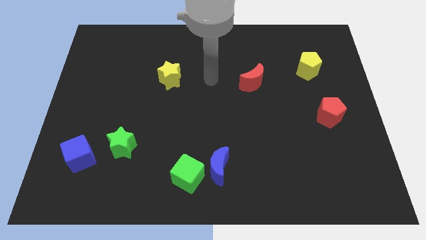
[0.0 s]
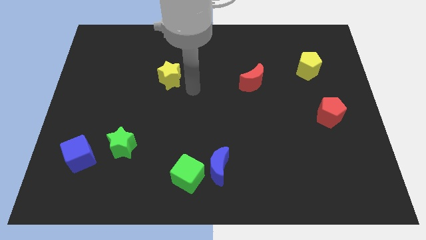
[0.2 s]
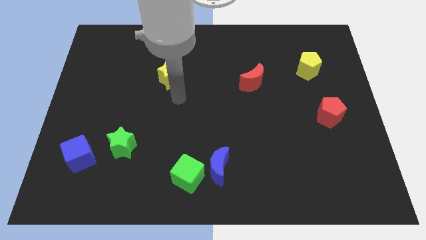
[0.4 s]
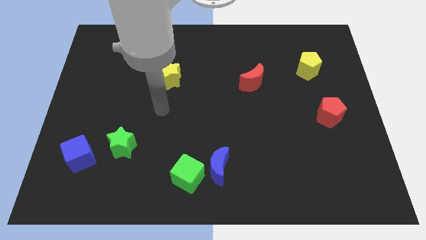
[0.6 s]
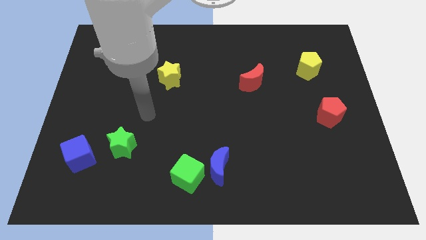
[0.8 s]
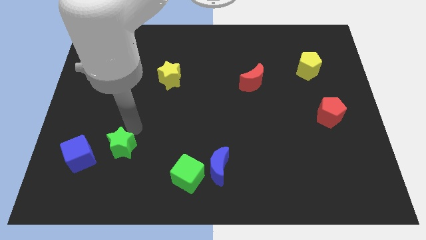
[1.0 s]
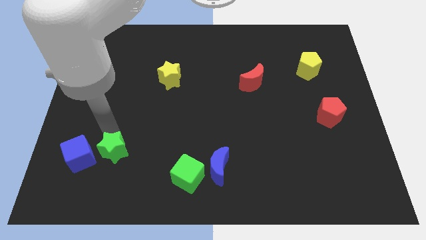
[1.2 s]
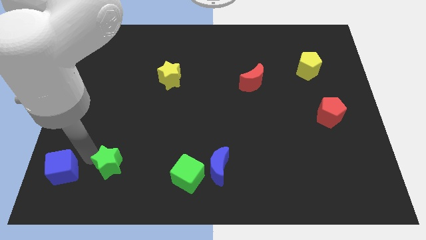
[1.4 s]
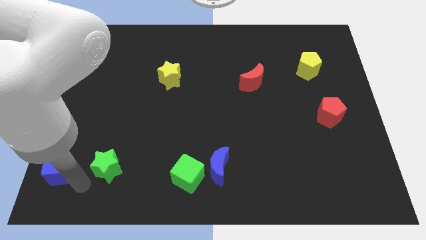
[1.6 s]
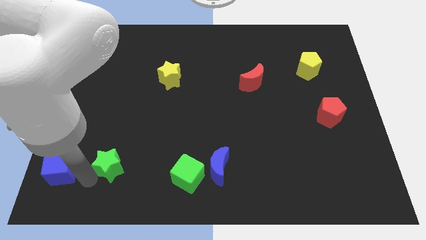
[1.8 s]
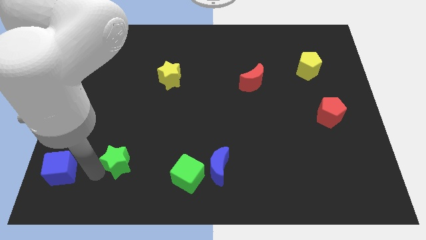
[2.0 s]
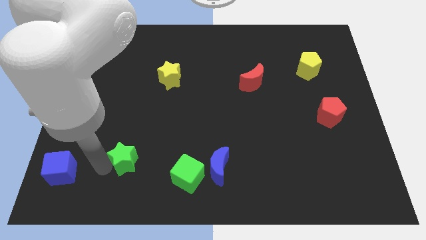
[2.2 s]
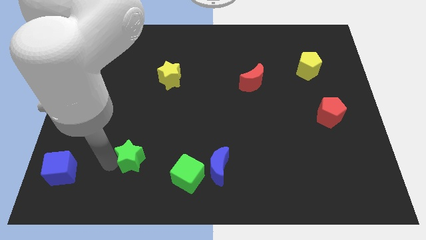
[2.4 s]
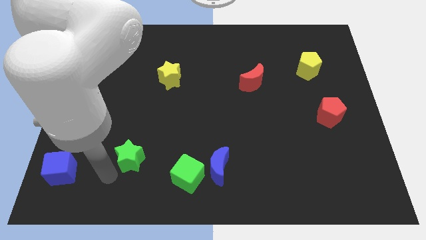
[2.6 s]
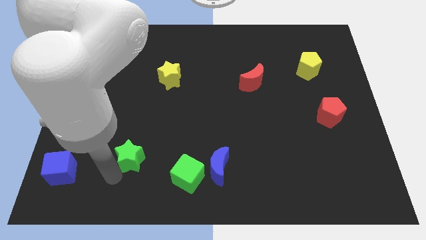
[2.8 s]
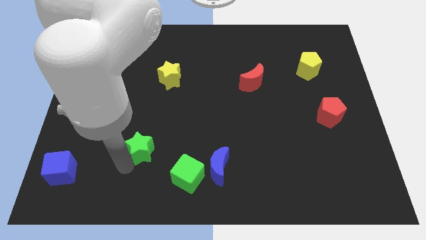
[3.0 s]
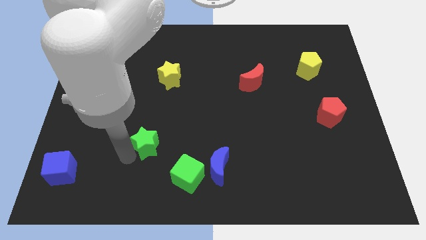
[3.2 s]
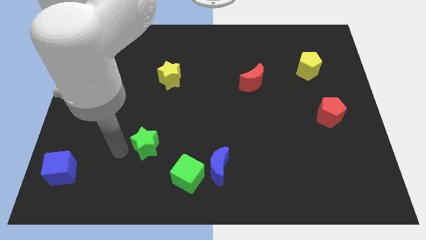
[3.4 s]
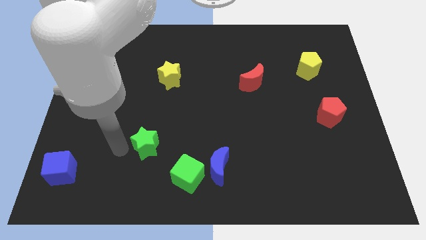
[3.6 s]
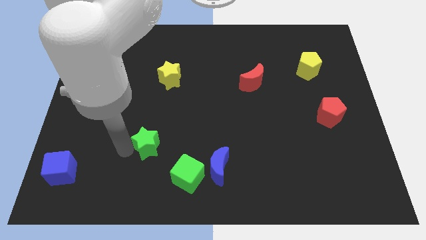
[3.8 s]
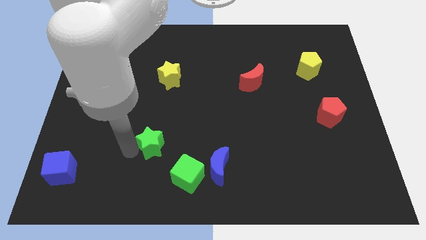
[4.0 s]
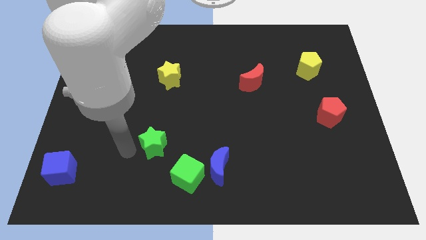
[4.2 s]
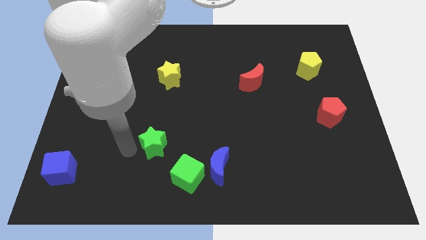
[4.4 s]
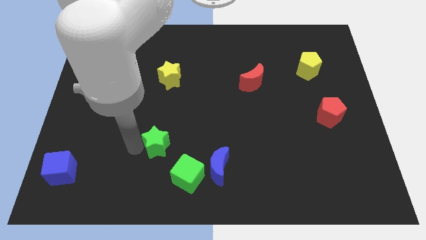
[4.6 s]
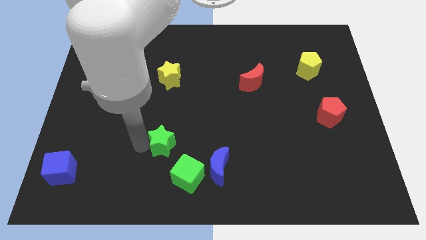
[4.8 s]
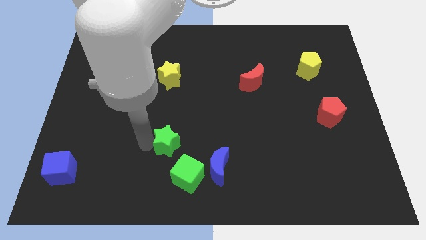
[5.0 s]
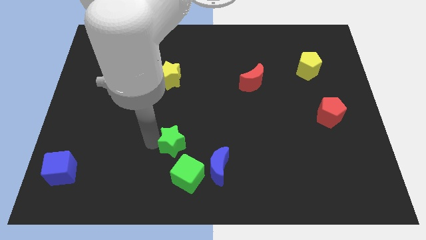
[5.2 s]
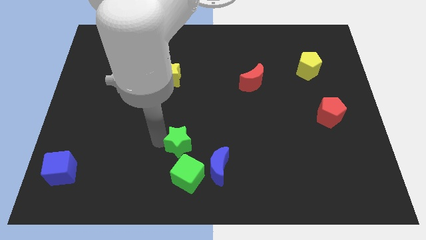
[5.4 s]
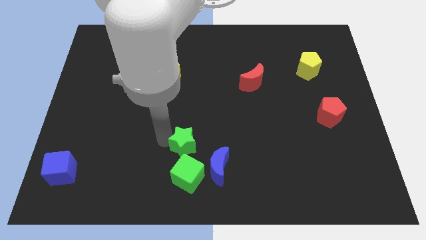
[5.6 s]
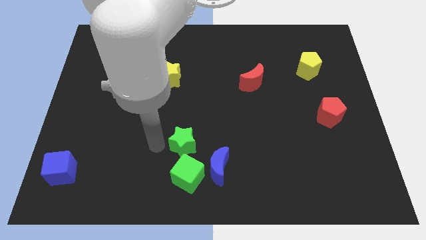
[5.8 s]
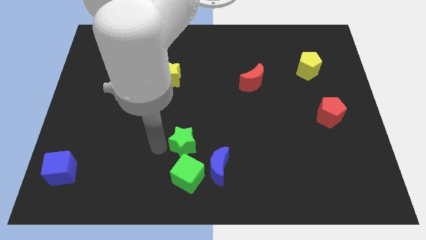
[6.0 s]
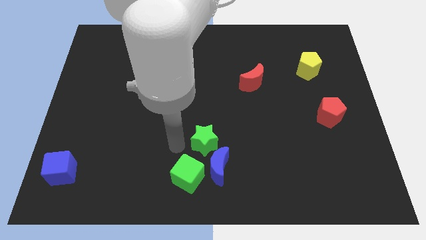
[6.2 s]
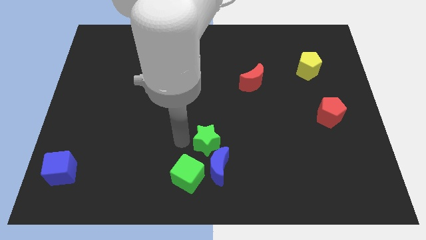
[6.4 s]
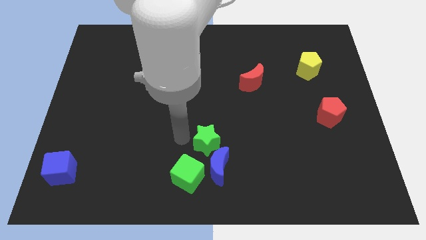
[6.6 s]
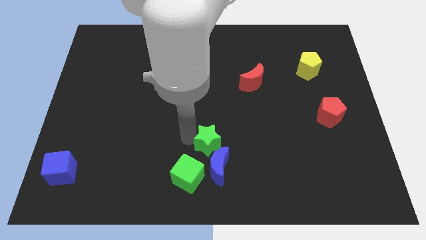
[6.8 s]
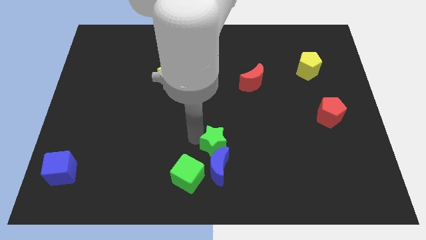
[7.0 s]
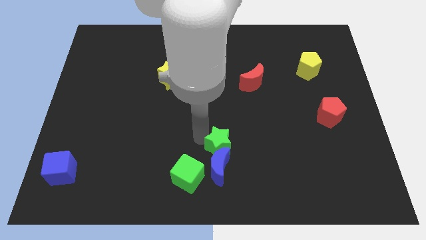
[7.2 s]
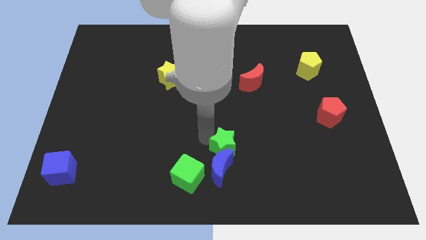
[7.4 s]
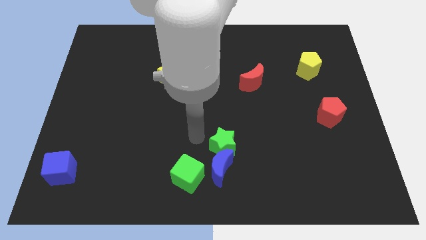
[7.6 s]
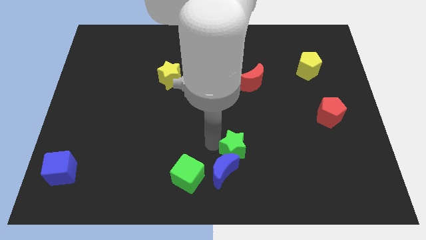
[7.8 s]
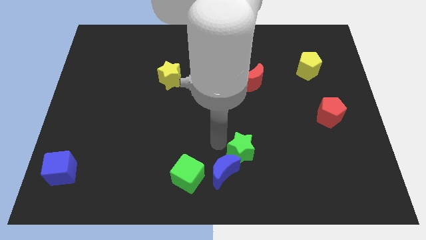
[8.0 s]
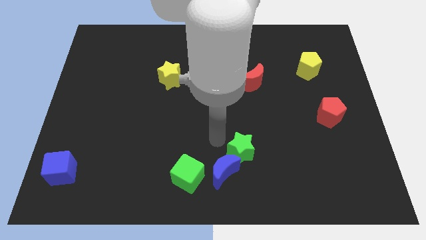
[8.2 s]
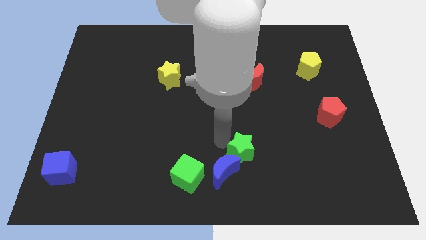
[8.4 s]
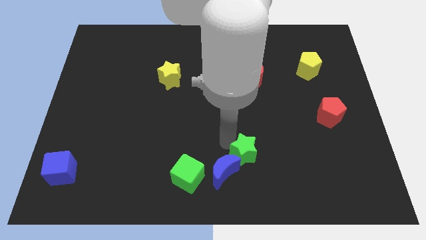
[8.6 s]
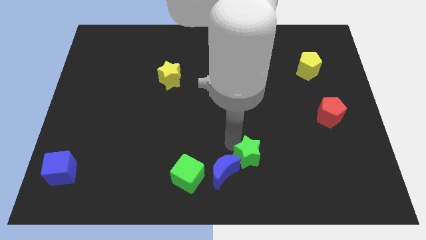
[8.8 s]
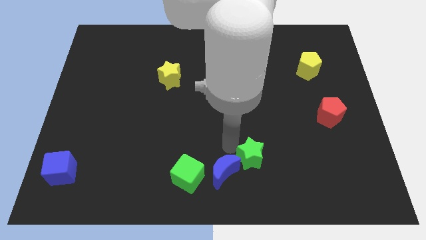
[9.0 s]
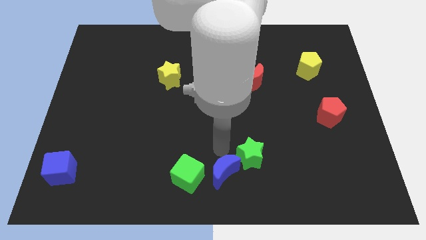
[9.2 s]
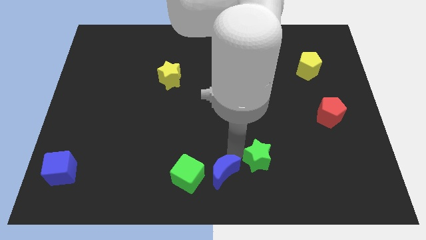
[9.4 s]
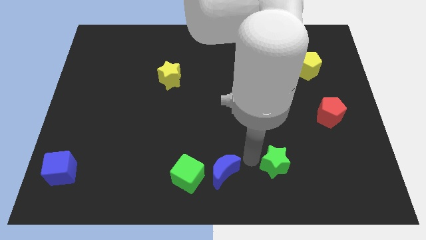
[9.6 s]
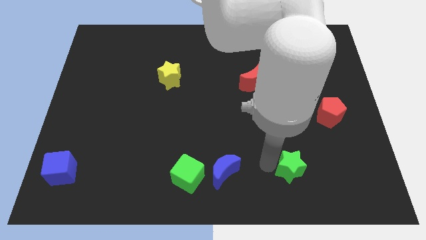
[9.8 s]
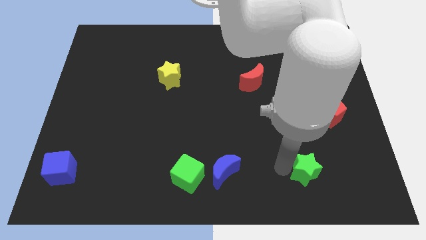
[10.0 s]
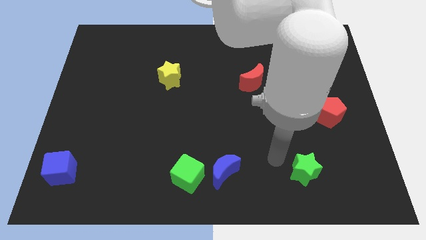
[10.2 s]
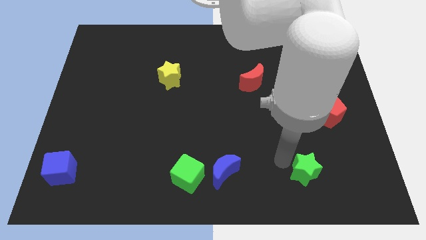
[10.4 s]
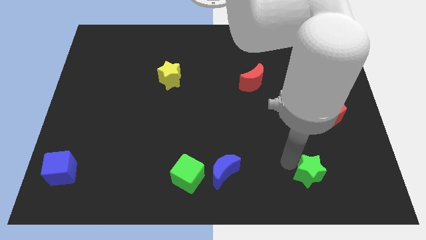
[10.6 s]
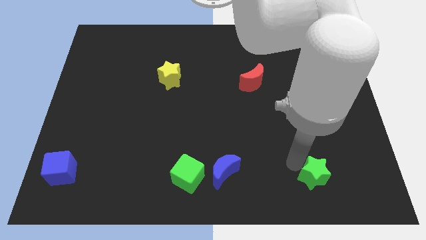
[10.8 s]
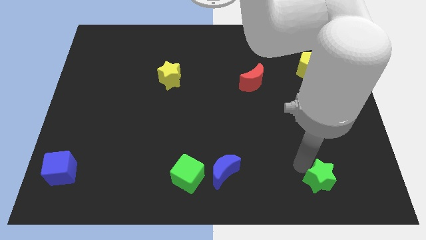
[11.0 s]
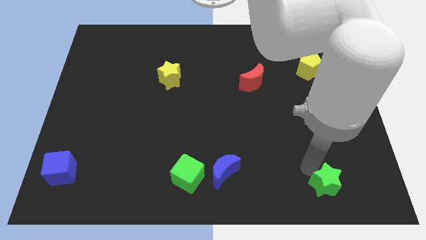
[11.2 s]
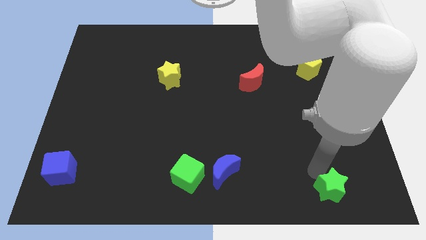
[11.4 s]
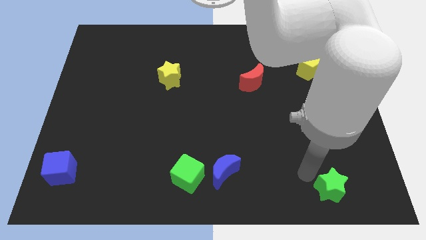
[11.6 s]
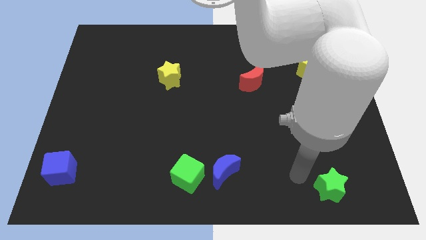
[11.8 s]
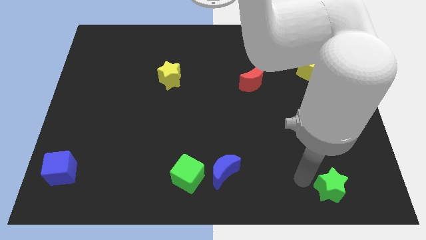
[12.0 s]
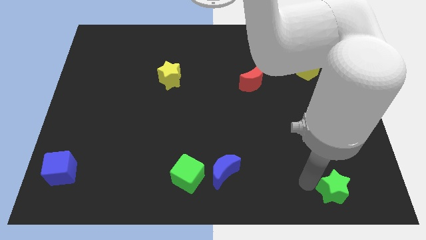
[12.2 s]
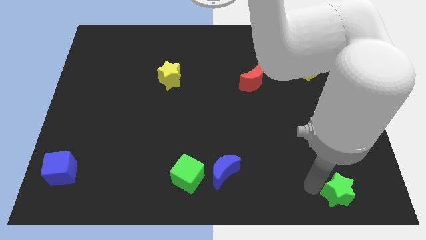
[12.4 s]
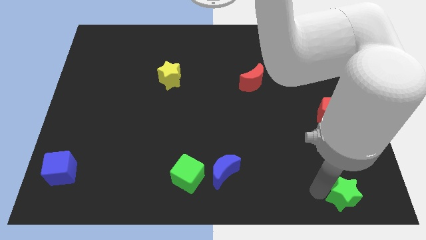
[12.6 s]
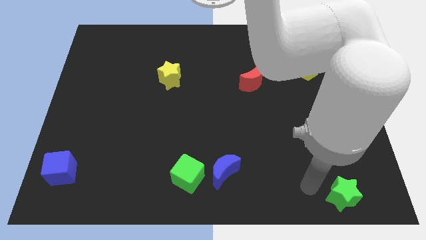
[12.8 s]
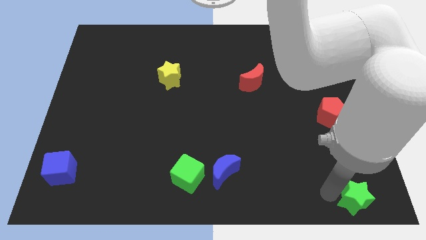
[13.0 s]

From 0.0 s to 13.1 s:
put the green star to the lower right corner
